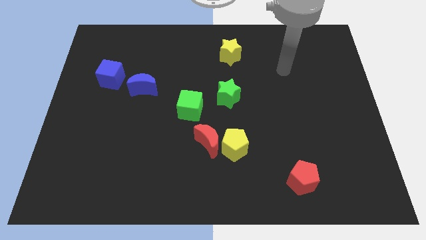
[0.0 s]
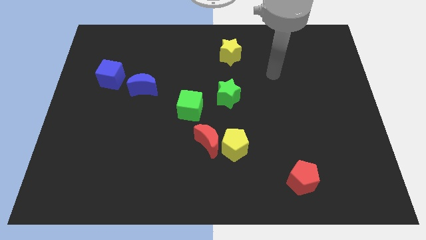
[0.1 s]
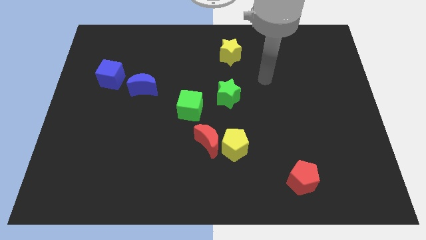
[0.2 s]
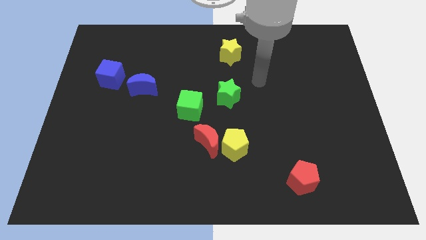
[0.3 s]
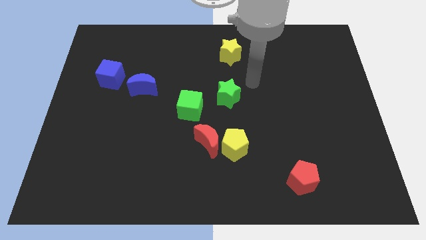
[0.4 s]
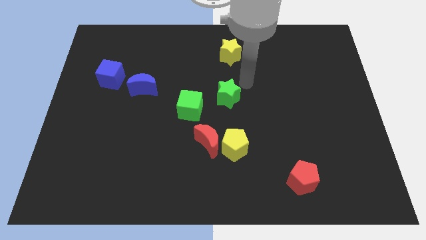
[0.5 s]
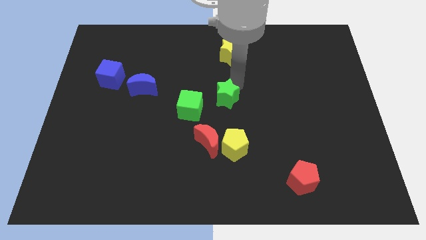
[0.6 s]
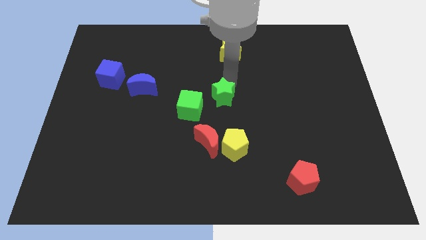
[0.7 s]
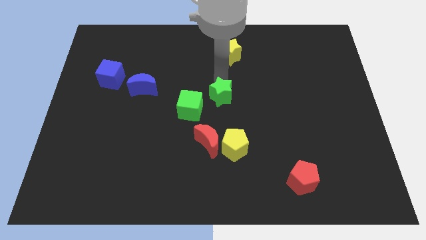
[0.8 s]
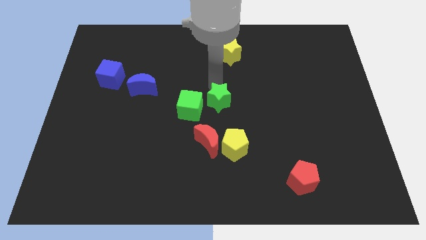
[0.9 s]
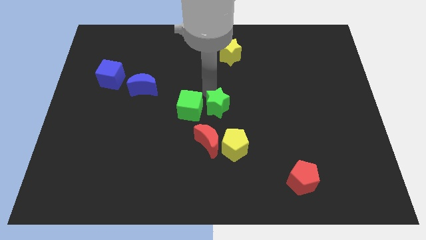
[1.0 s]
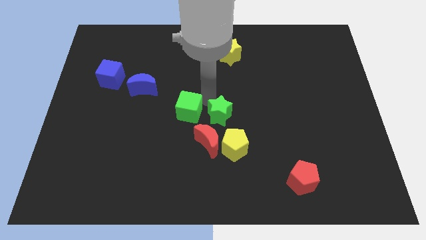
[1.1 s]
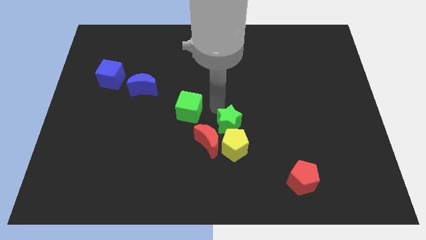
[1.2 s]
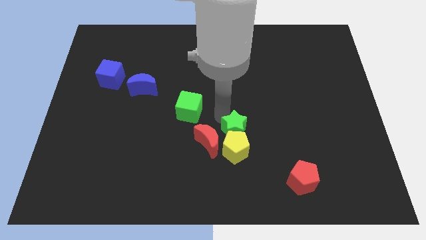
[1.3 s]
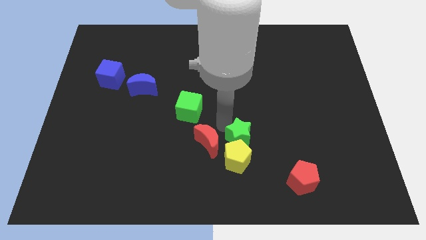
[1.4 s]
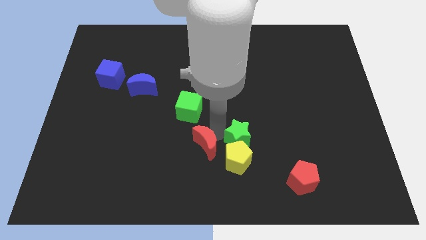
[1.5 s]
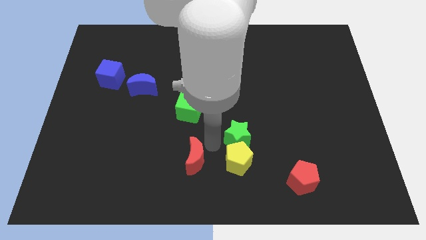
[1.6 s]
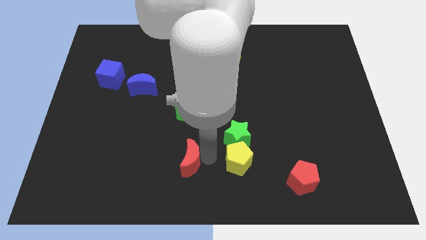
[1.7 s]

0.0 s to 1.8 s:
move the yellow pentagon away from the red moon

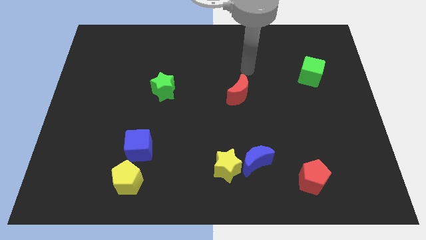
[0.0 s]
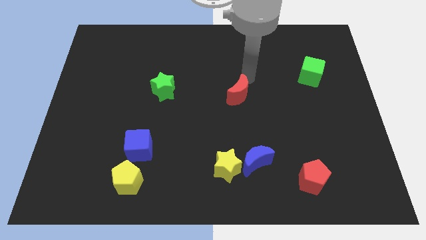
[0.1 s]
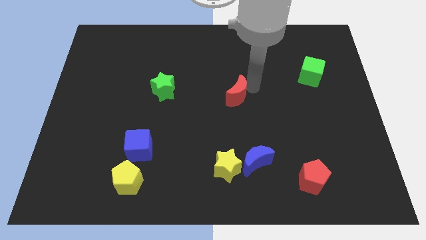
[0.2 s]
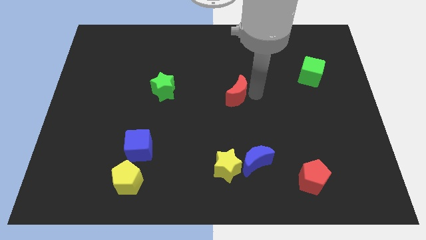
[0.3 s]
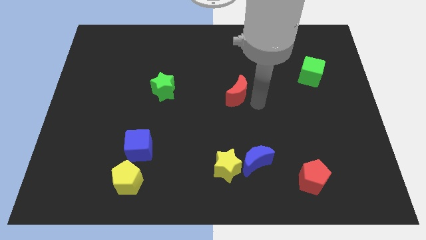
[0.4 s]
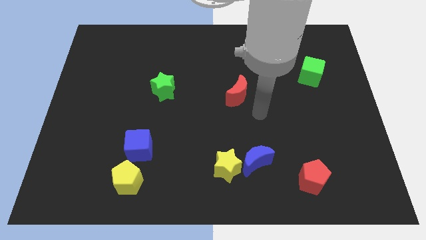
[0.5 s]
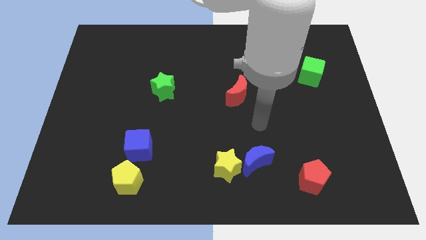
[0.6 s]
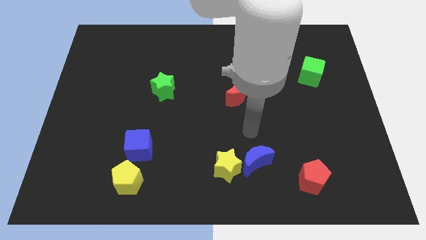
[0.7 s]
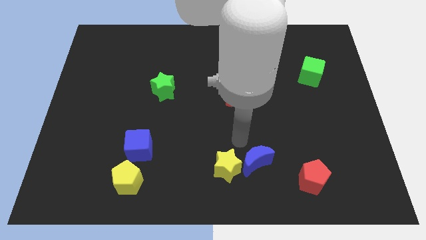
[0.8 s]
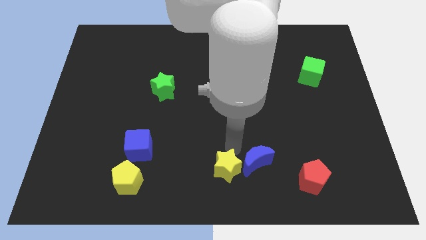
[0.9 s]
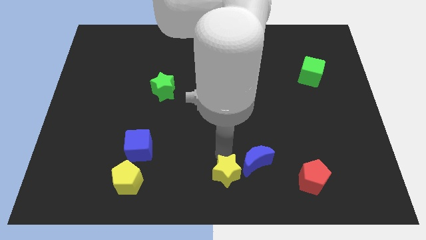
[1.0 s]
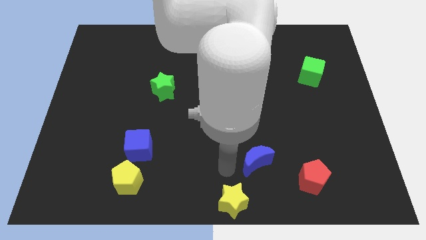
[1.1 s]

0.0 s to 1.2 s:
separate the blue moon from the yellow star

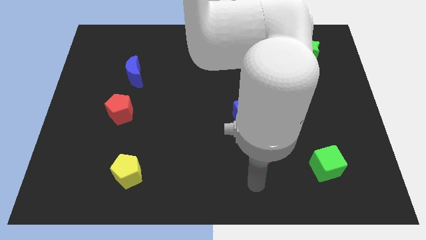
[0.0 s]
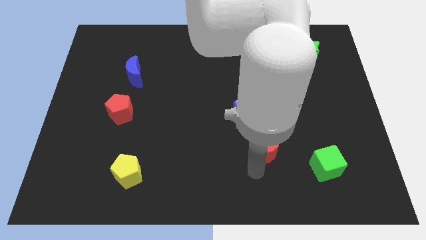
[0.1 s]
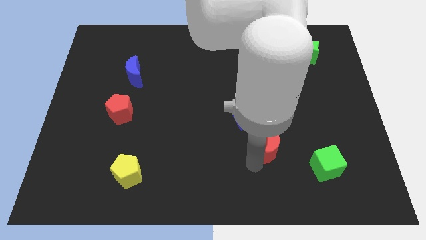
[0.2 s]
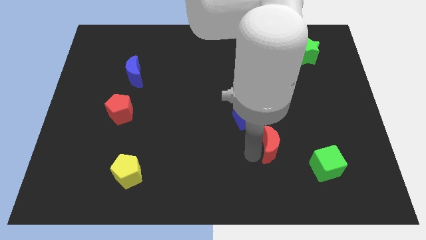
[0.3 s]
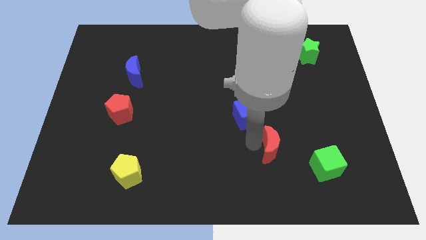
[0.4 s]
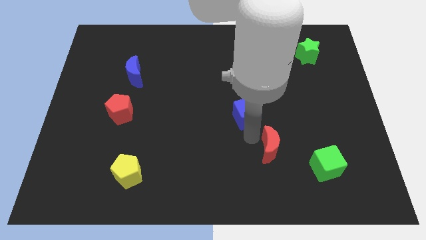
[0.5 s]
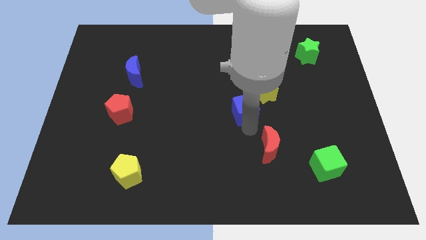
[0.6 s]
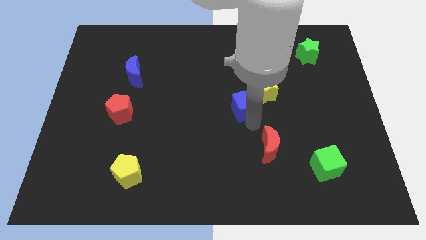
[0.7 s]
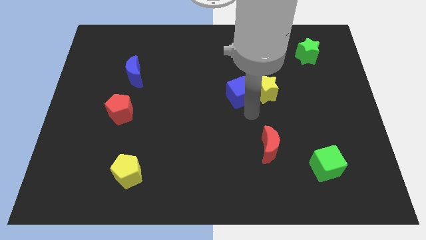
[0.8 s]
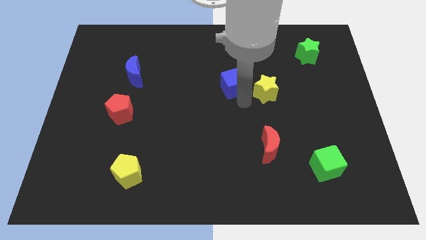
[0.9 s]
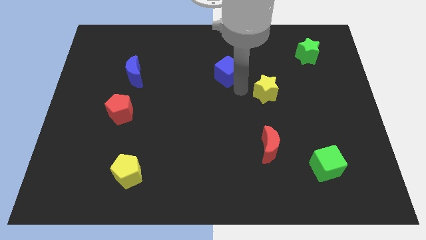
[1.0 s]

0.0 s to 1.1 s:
pull the yellow star apart from the blue cube

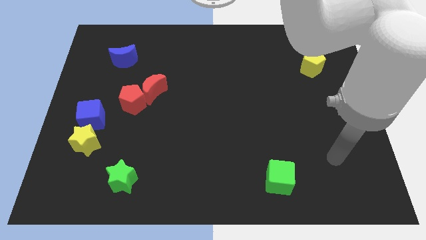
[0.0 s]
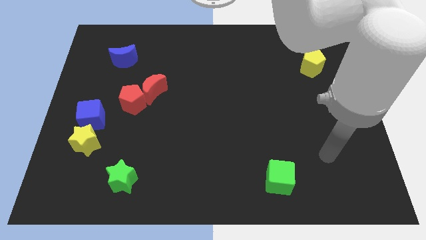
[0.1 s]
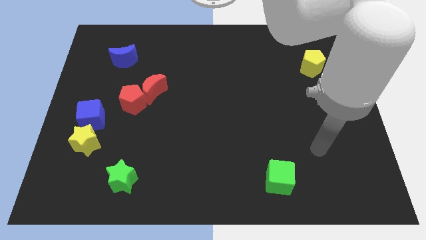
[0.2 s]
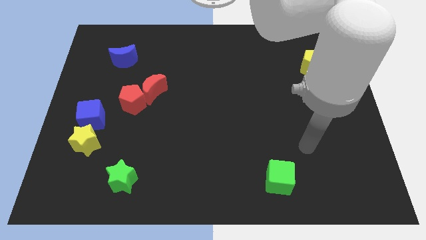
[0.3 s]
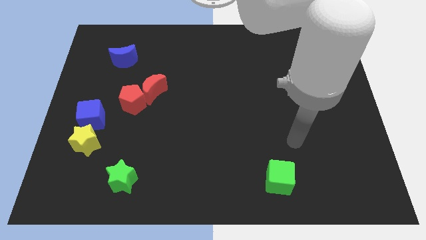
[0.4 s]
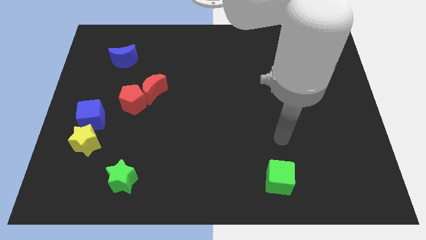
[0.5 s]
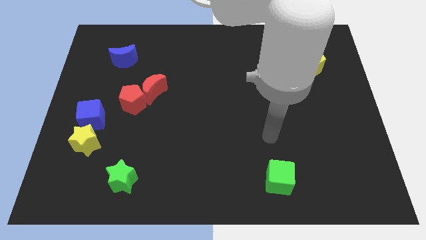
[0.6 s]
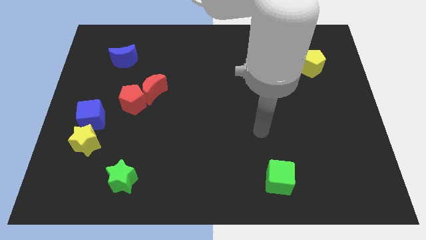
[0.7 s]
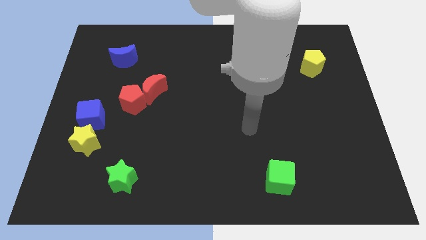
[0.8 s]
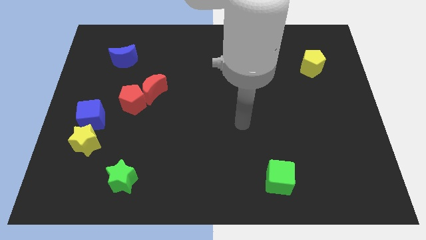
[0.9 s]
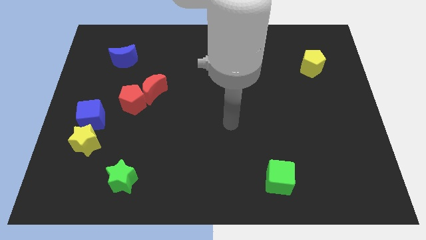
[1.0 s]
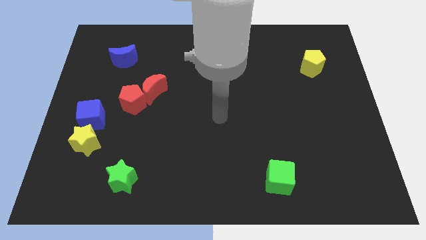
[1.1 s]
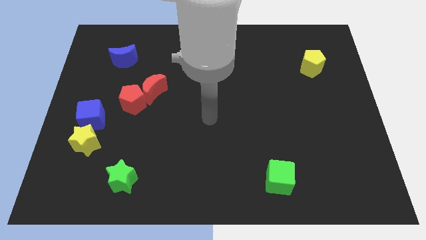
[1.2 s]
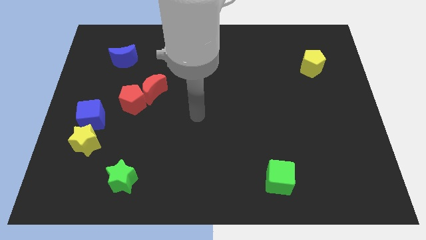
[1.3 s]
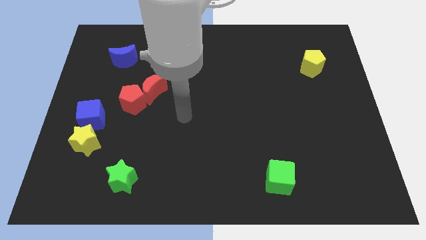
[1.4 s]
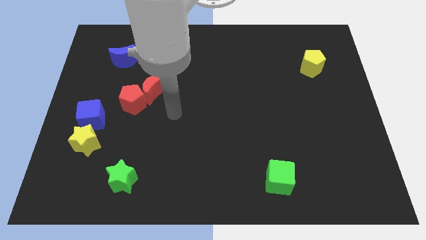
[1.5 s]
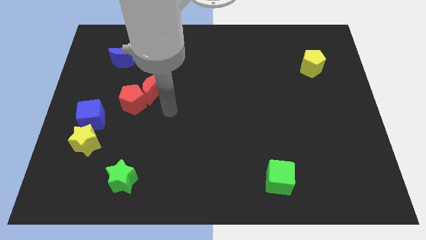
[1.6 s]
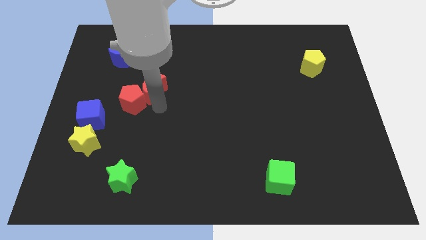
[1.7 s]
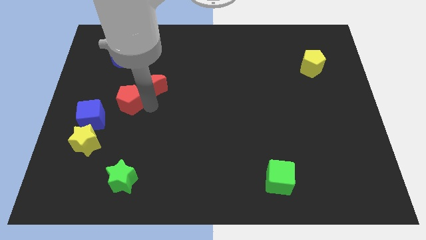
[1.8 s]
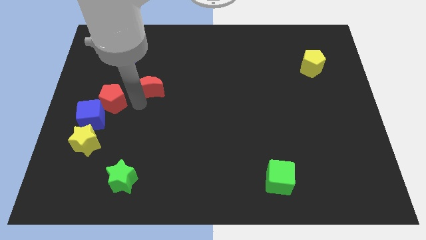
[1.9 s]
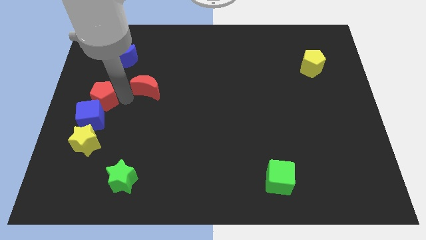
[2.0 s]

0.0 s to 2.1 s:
separate the red moon from the red pentagon

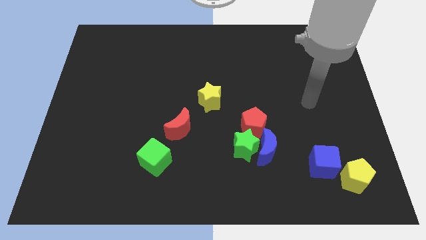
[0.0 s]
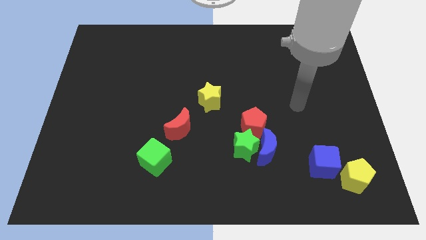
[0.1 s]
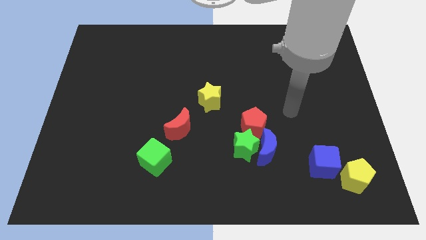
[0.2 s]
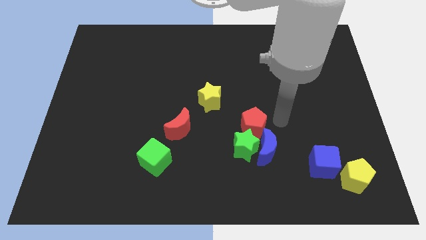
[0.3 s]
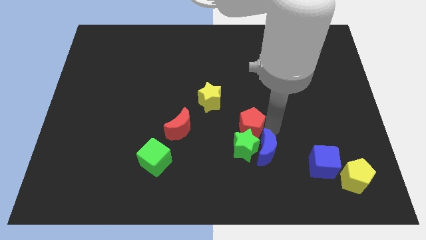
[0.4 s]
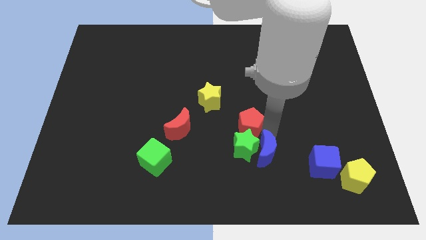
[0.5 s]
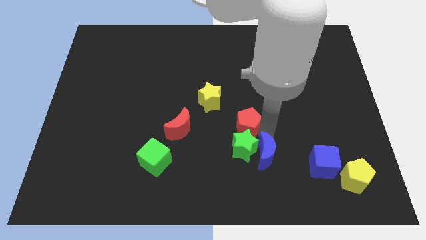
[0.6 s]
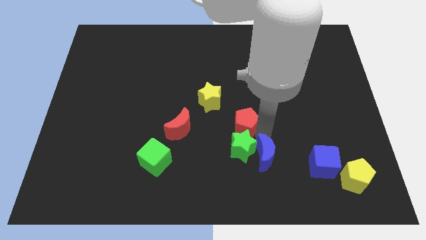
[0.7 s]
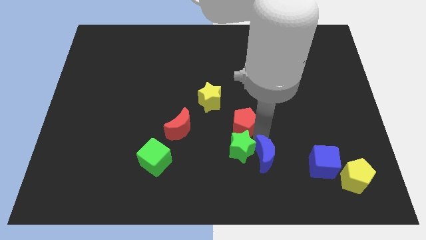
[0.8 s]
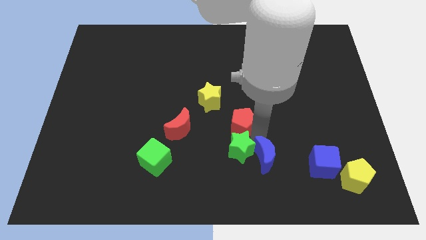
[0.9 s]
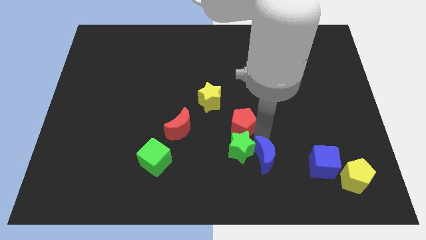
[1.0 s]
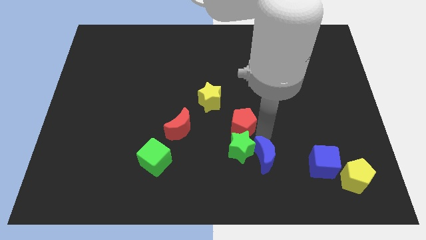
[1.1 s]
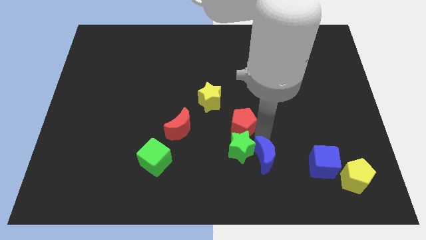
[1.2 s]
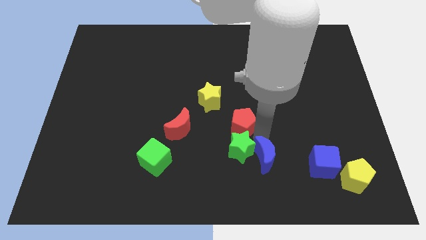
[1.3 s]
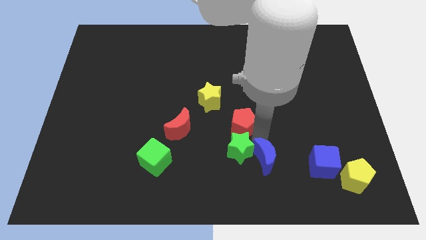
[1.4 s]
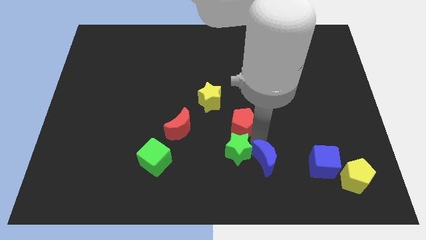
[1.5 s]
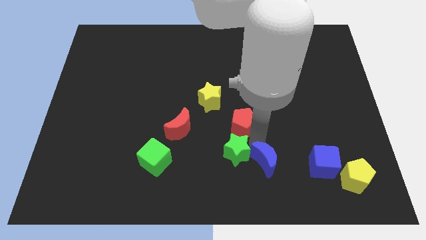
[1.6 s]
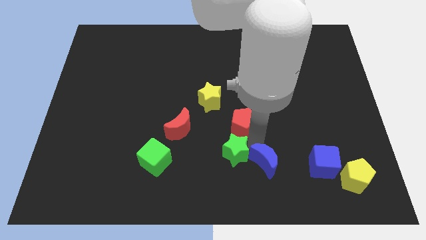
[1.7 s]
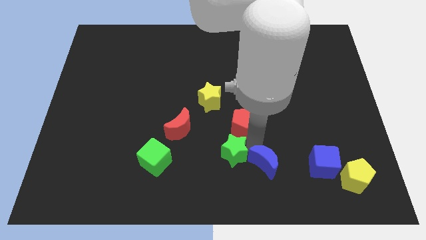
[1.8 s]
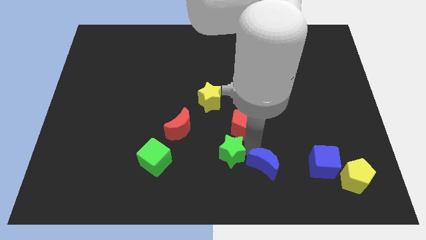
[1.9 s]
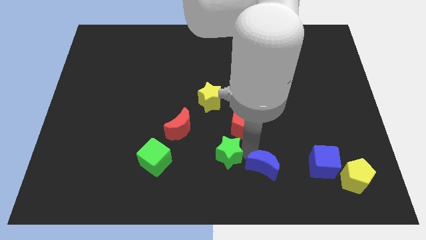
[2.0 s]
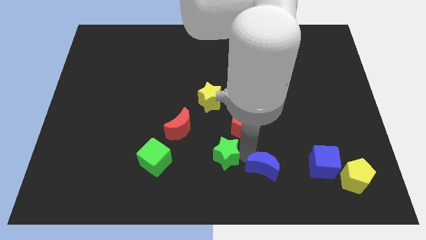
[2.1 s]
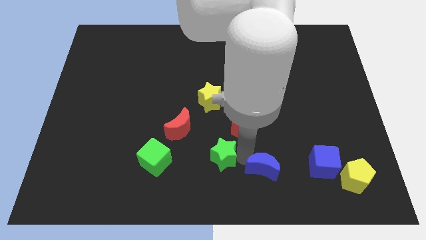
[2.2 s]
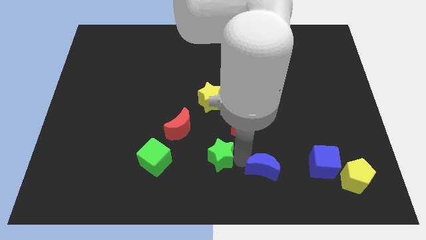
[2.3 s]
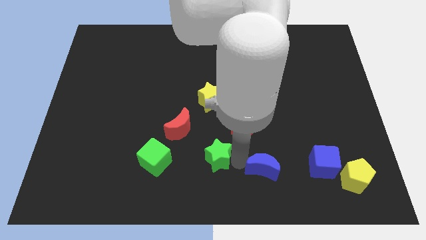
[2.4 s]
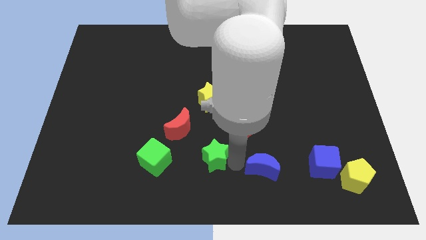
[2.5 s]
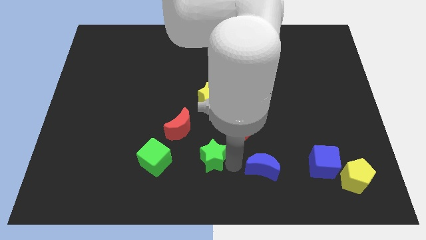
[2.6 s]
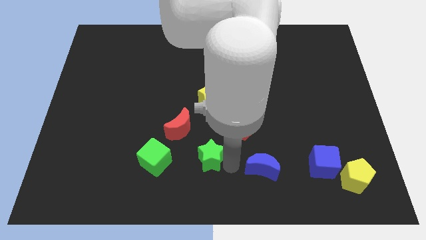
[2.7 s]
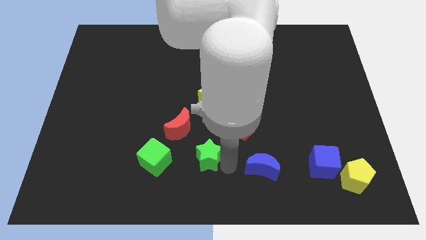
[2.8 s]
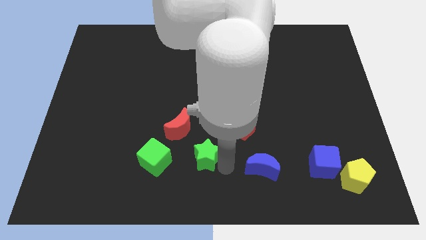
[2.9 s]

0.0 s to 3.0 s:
separate the green star from the blue moon and red pentagon

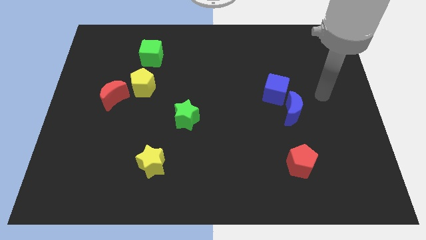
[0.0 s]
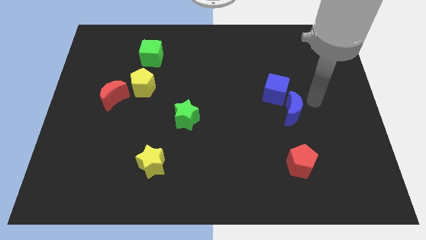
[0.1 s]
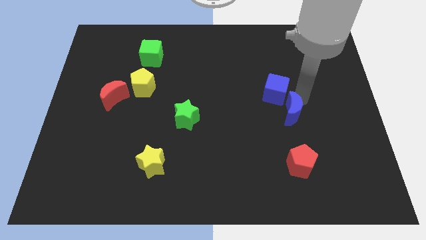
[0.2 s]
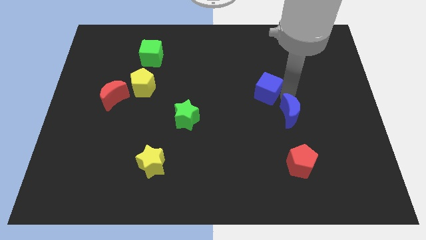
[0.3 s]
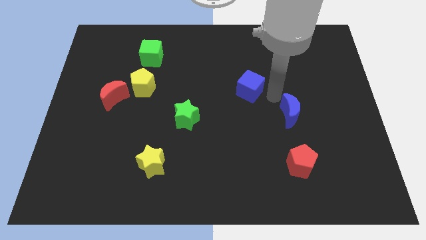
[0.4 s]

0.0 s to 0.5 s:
move the blue moon away from the blue cube
